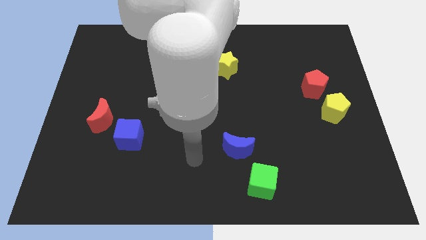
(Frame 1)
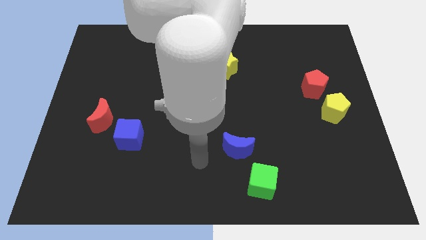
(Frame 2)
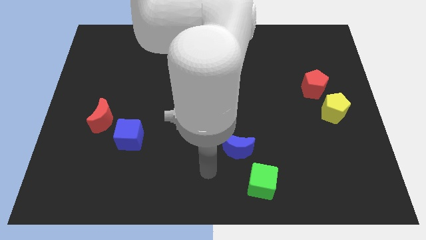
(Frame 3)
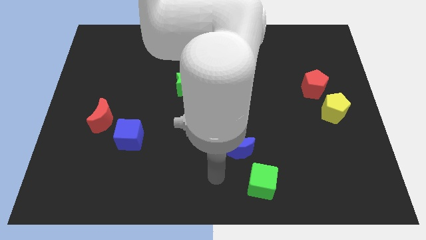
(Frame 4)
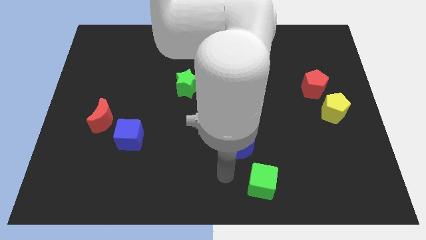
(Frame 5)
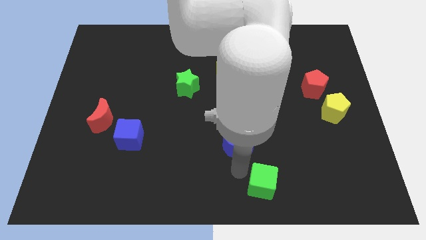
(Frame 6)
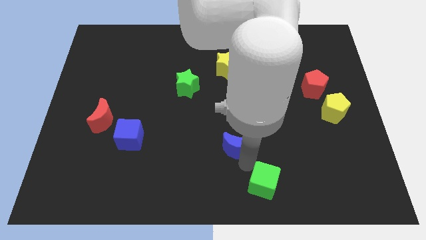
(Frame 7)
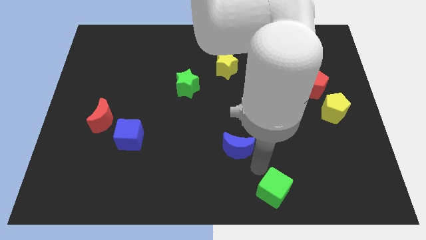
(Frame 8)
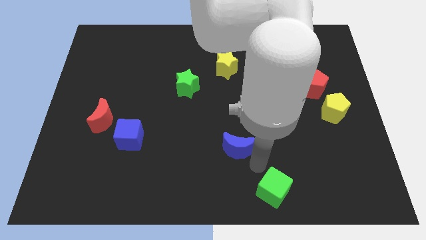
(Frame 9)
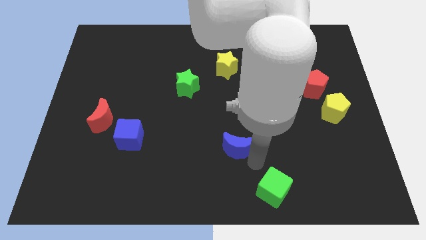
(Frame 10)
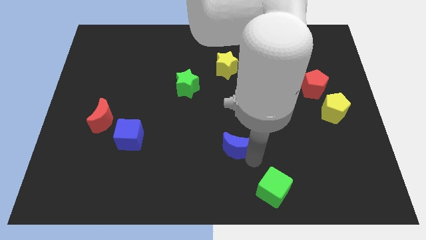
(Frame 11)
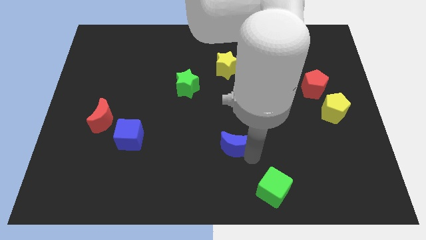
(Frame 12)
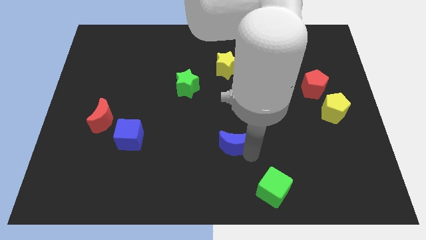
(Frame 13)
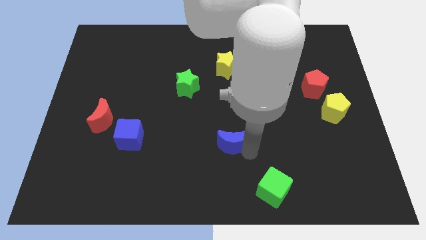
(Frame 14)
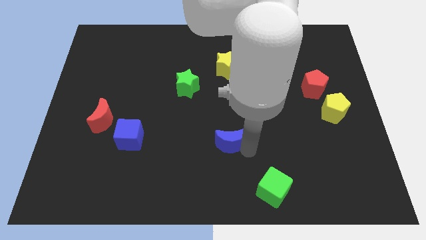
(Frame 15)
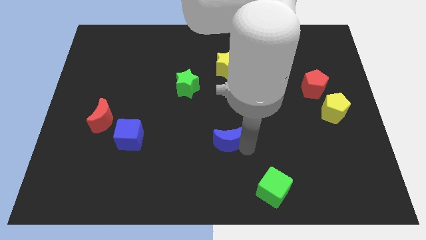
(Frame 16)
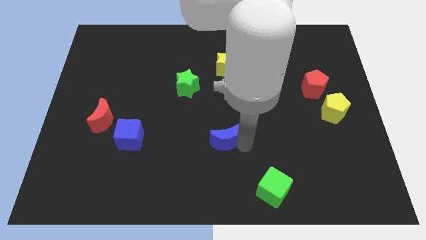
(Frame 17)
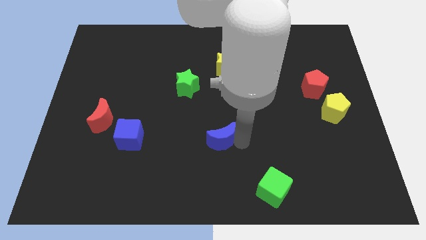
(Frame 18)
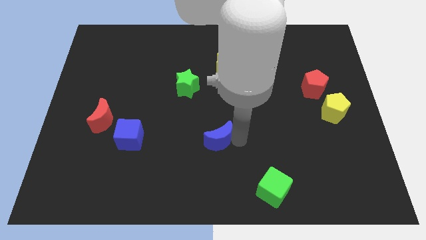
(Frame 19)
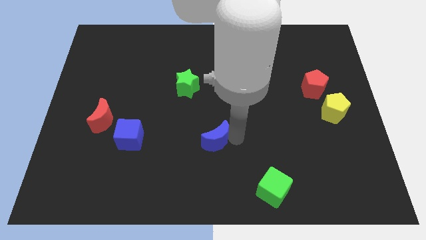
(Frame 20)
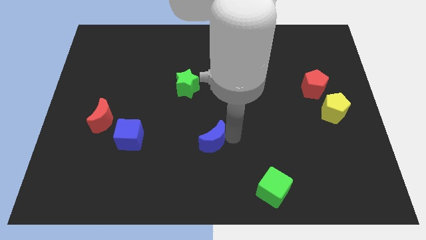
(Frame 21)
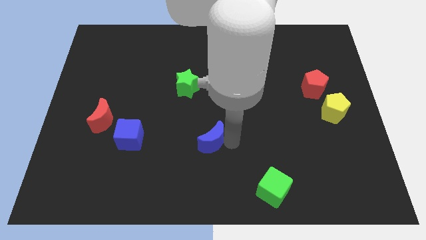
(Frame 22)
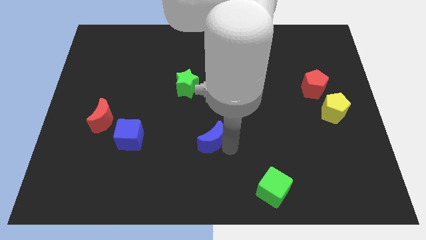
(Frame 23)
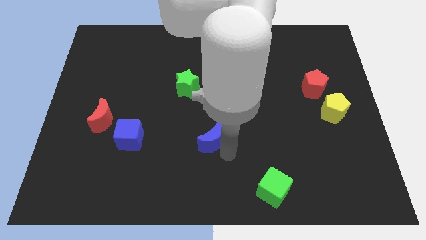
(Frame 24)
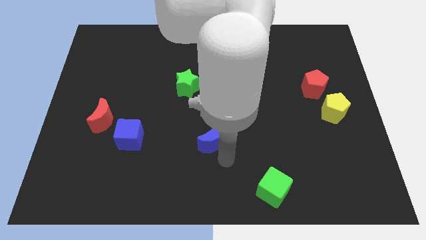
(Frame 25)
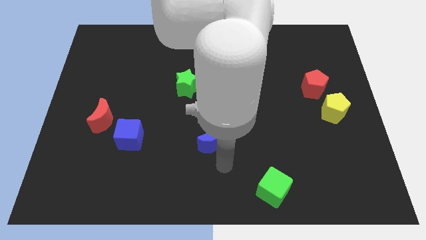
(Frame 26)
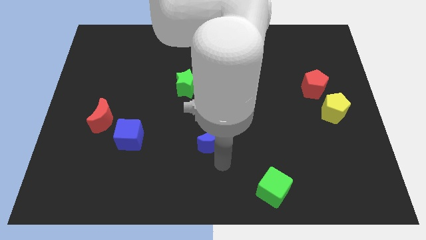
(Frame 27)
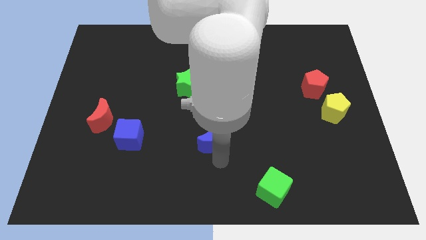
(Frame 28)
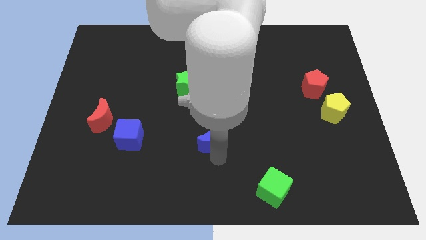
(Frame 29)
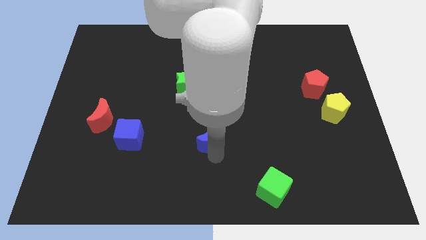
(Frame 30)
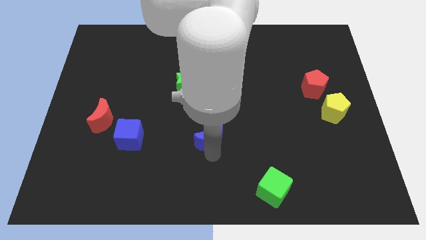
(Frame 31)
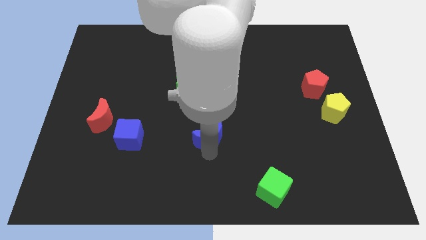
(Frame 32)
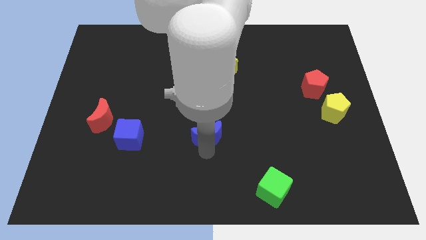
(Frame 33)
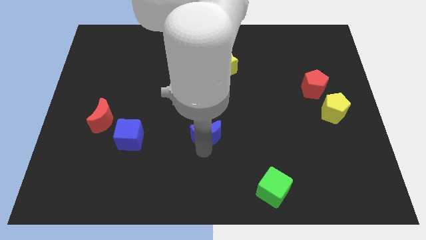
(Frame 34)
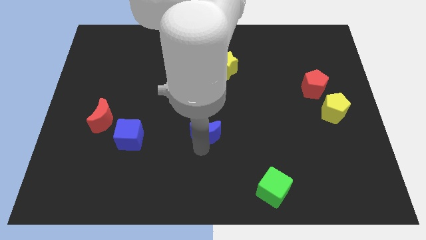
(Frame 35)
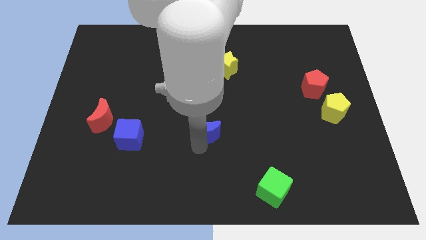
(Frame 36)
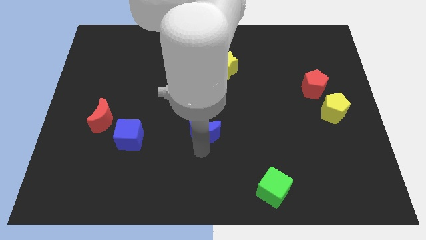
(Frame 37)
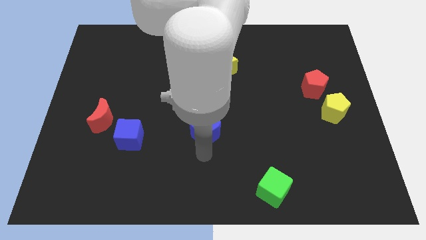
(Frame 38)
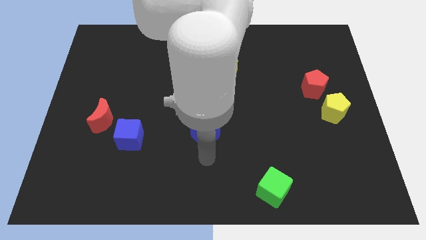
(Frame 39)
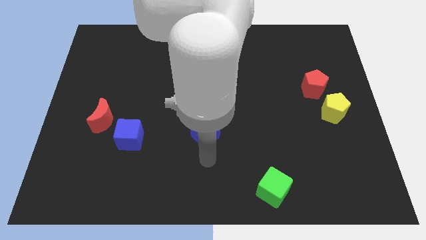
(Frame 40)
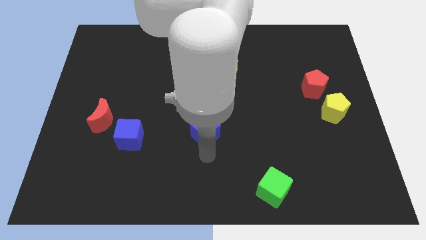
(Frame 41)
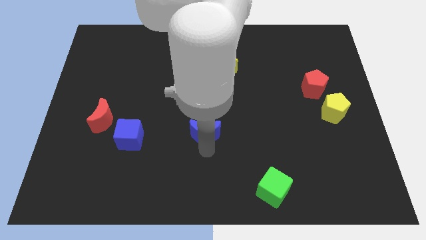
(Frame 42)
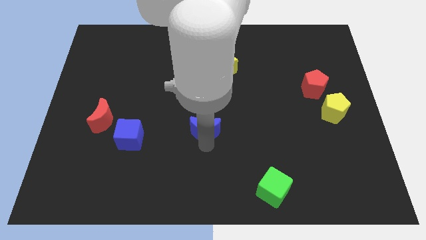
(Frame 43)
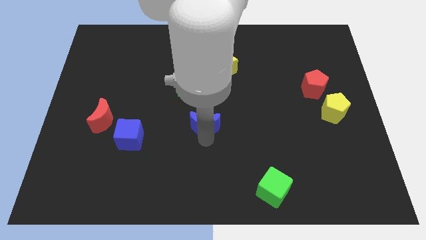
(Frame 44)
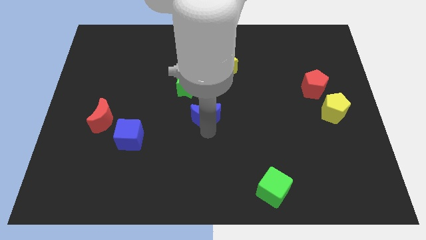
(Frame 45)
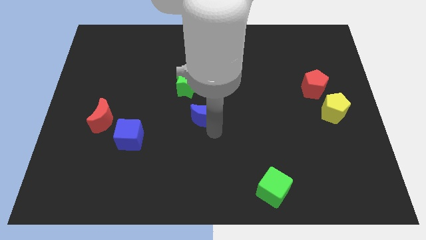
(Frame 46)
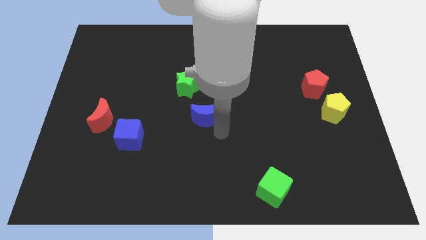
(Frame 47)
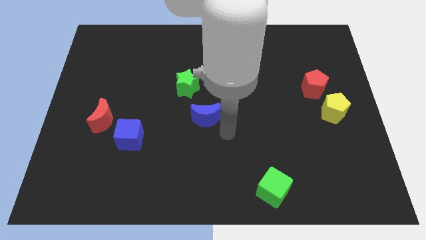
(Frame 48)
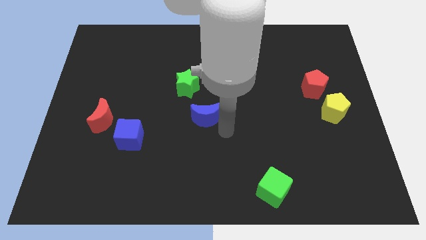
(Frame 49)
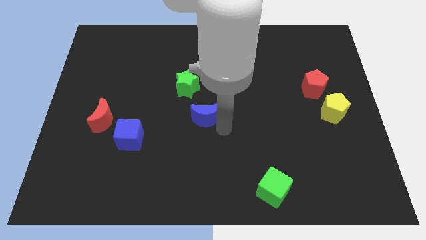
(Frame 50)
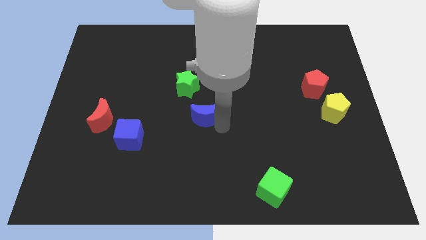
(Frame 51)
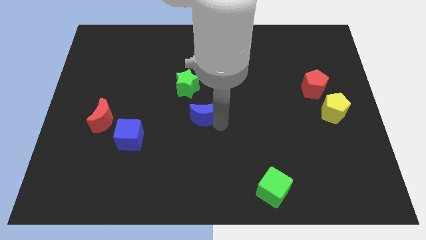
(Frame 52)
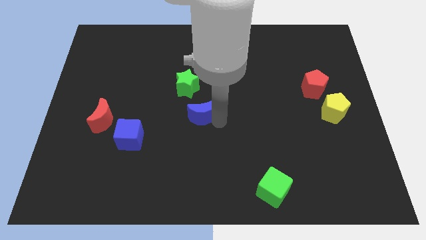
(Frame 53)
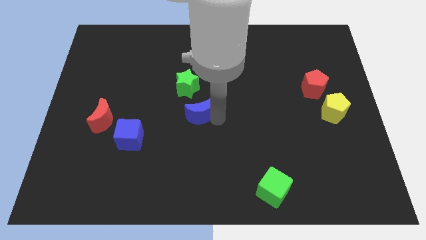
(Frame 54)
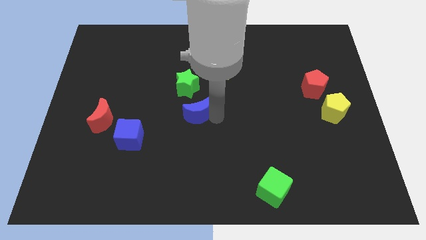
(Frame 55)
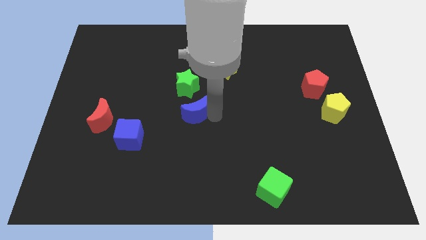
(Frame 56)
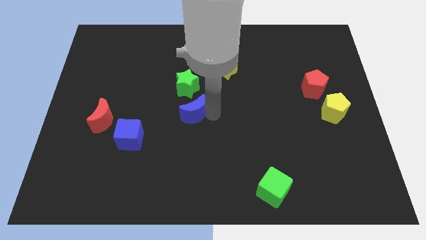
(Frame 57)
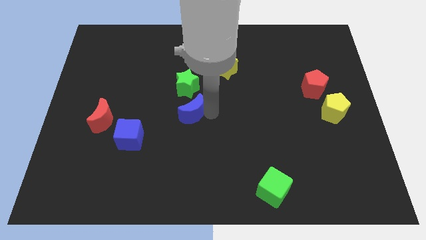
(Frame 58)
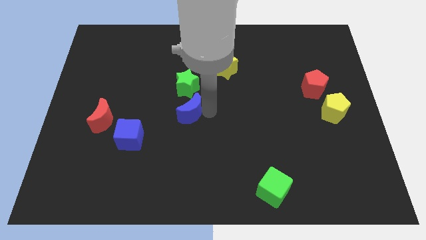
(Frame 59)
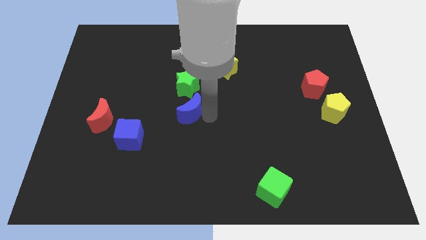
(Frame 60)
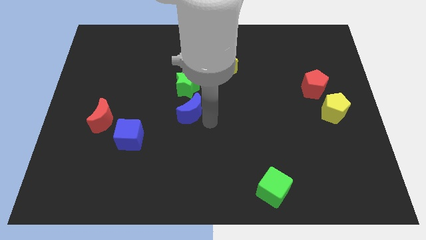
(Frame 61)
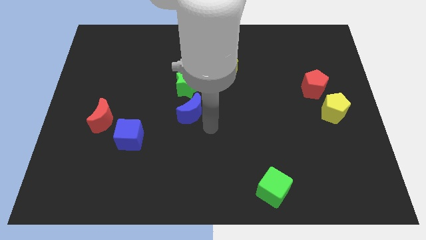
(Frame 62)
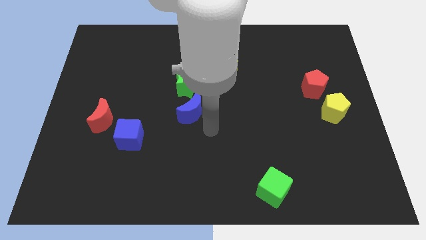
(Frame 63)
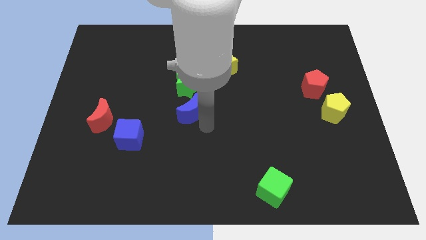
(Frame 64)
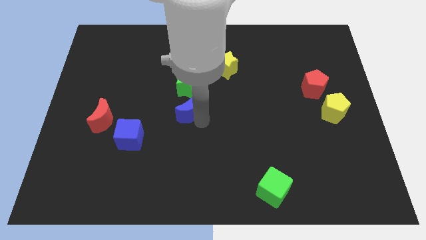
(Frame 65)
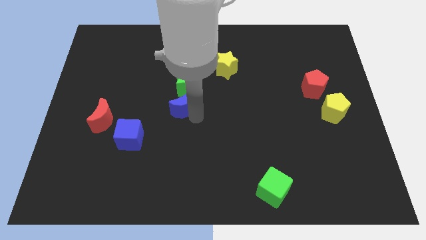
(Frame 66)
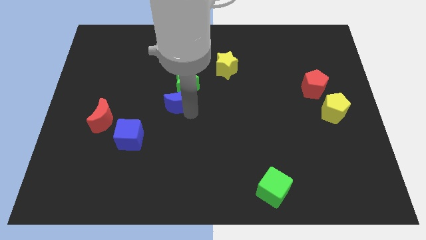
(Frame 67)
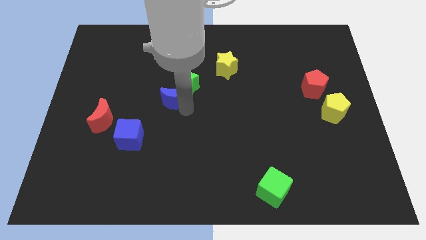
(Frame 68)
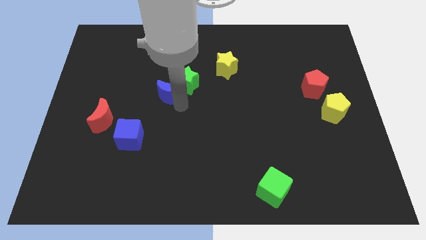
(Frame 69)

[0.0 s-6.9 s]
push the blue moon diagonally upwards and to the left

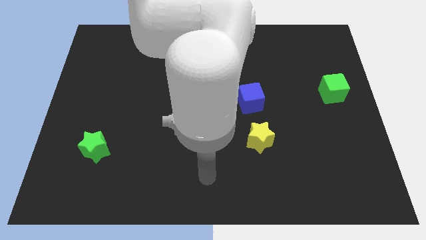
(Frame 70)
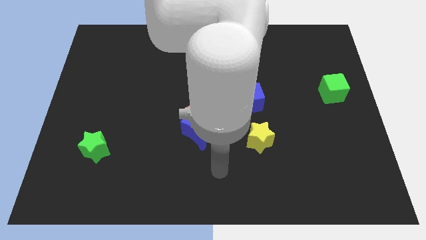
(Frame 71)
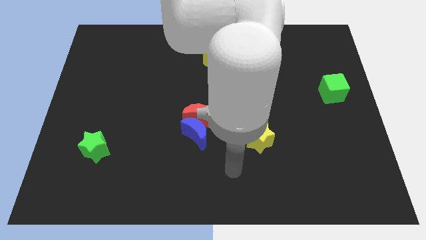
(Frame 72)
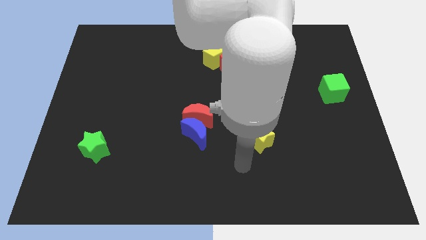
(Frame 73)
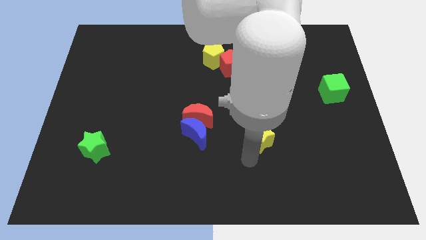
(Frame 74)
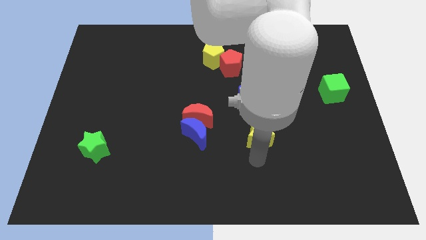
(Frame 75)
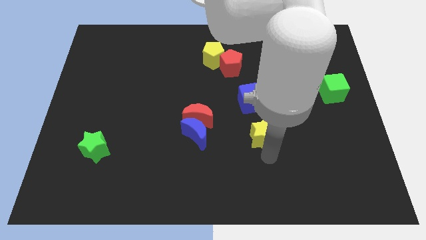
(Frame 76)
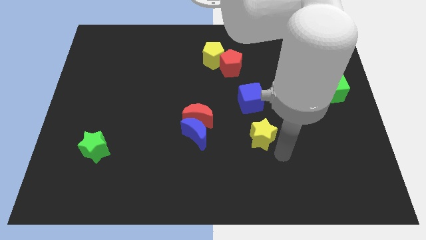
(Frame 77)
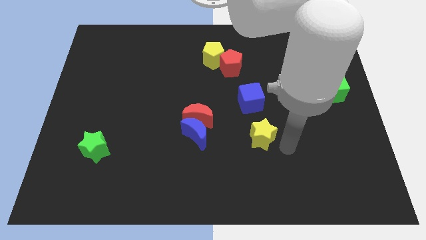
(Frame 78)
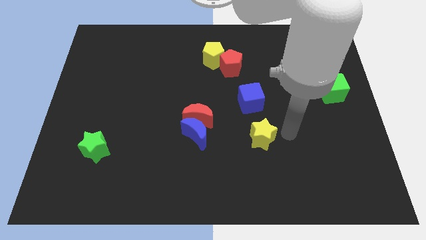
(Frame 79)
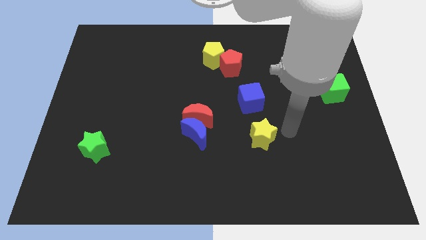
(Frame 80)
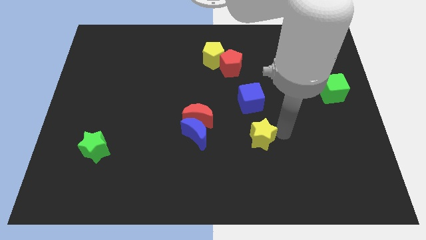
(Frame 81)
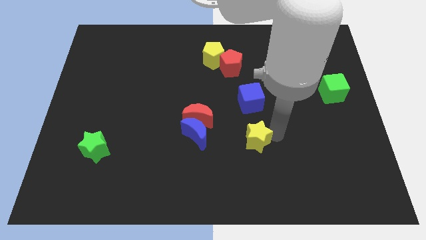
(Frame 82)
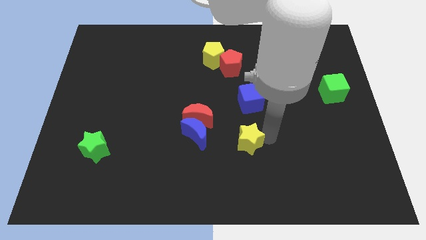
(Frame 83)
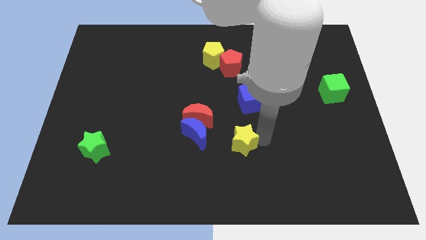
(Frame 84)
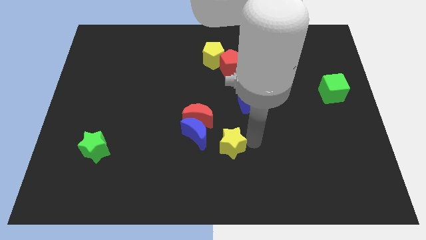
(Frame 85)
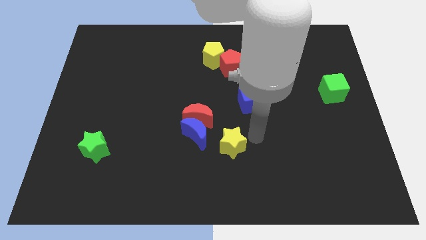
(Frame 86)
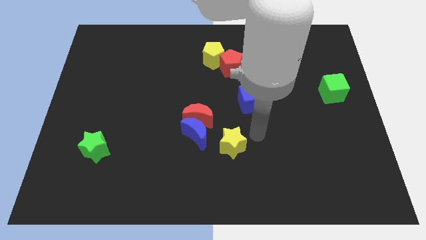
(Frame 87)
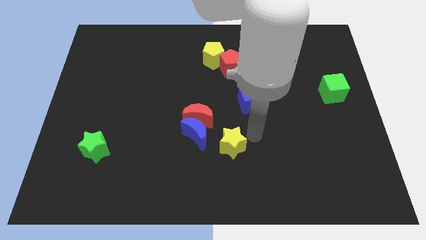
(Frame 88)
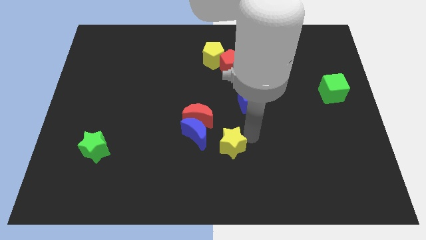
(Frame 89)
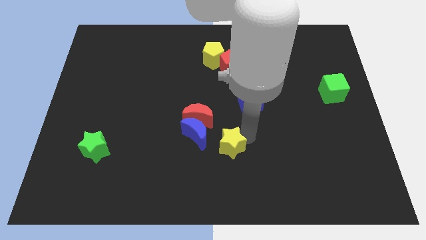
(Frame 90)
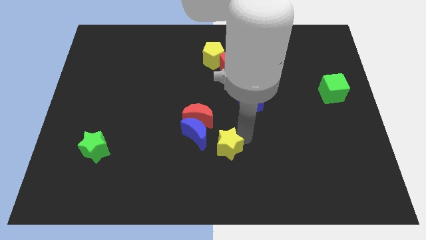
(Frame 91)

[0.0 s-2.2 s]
slightly push the yellow star left
